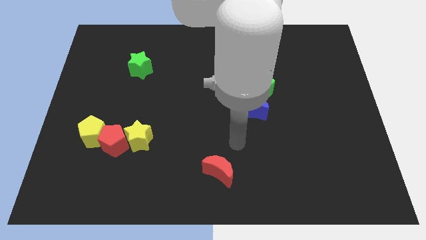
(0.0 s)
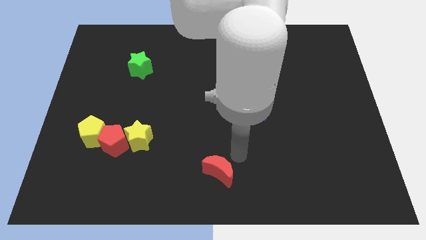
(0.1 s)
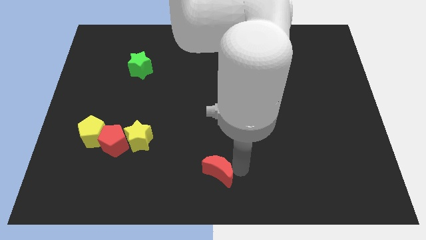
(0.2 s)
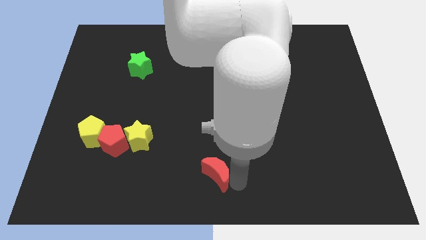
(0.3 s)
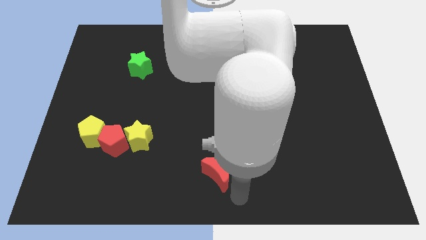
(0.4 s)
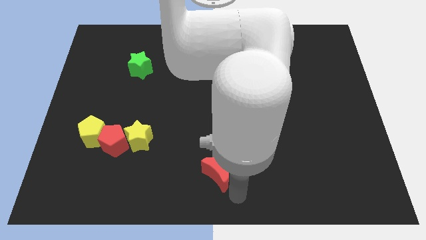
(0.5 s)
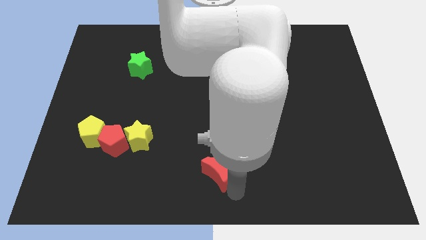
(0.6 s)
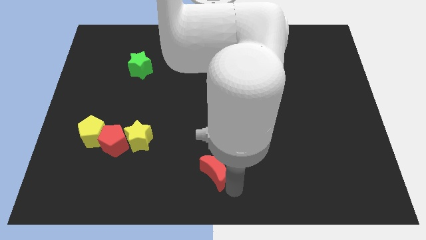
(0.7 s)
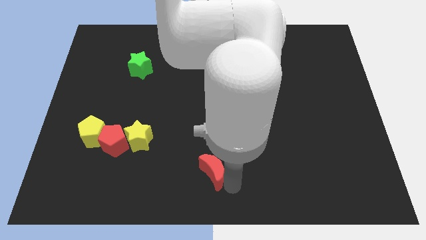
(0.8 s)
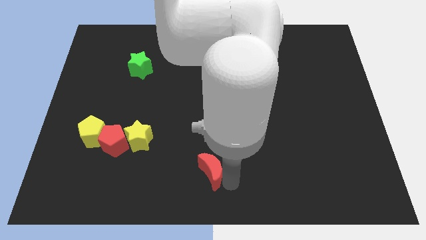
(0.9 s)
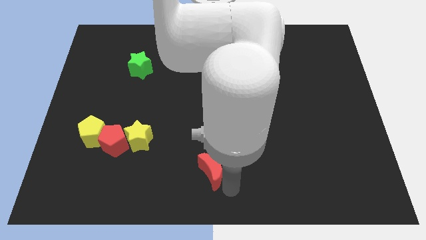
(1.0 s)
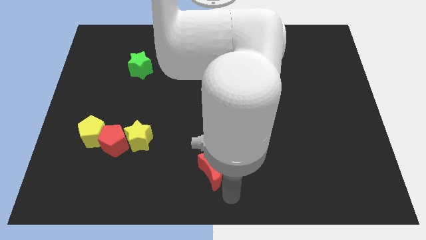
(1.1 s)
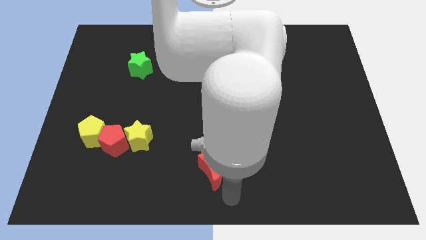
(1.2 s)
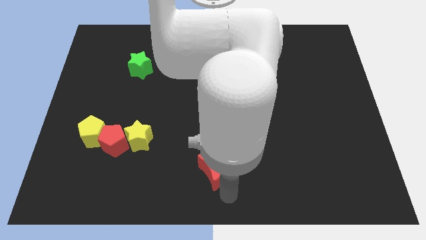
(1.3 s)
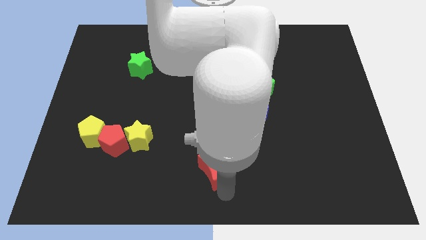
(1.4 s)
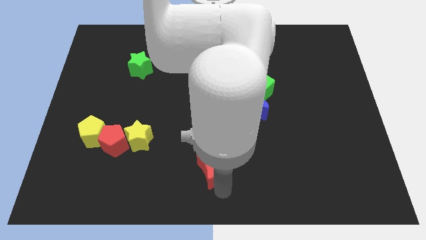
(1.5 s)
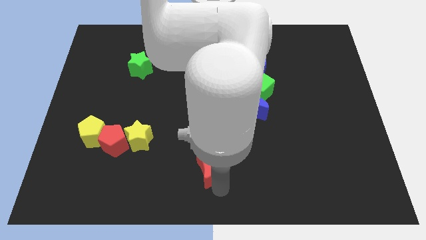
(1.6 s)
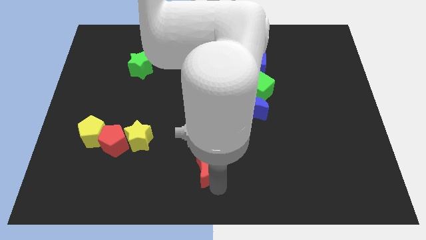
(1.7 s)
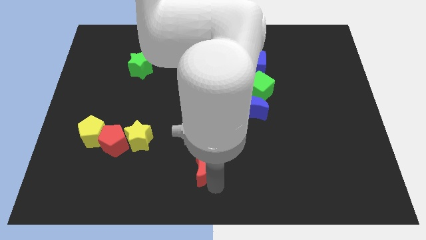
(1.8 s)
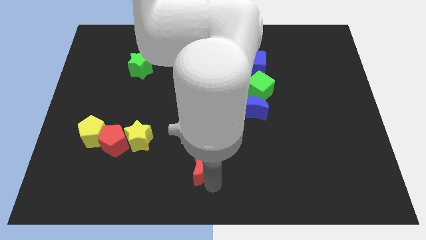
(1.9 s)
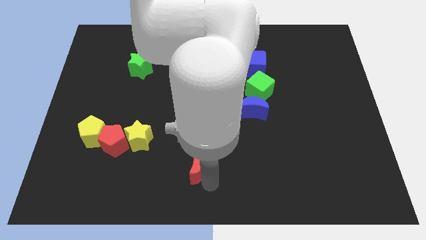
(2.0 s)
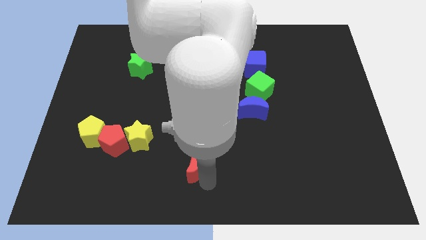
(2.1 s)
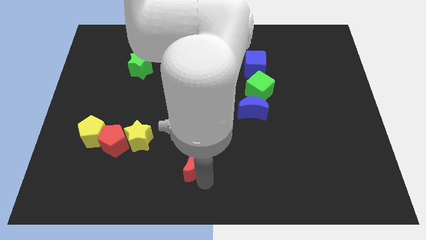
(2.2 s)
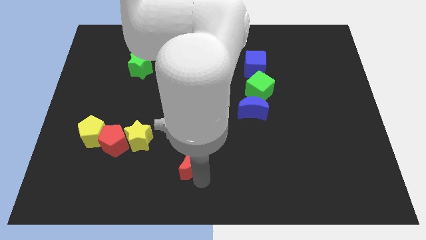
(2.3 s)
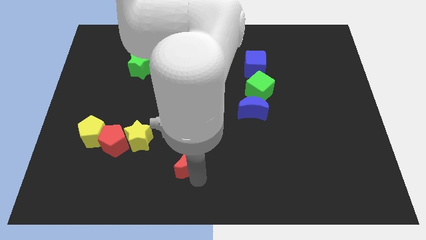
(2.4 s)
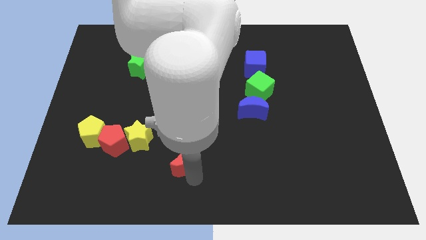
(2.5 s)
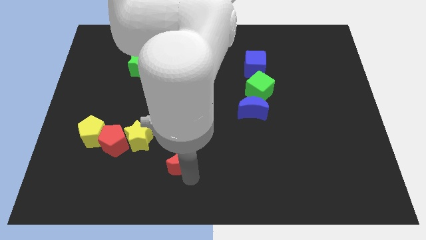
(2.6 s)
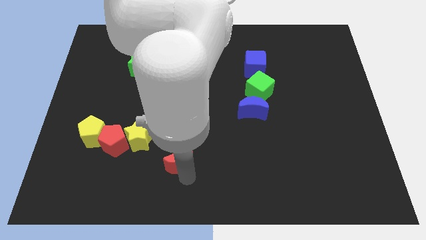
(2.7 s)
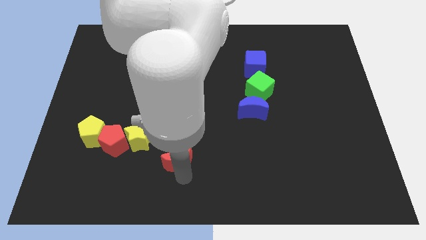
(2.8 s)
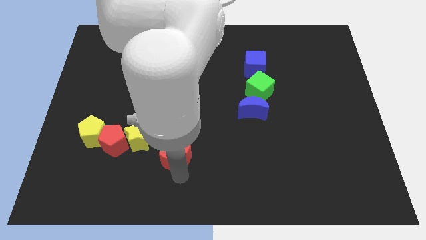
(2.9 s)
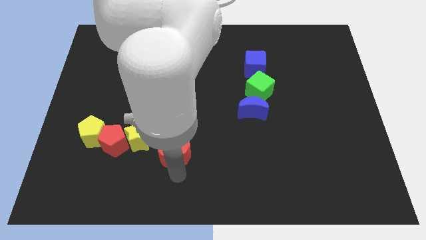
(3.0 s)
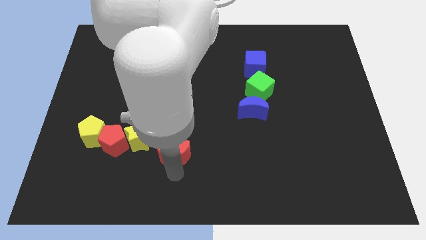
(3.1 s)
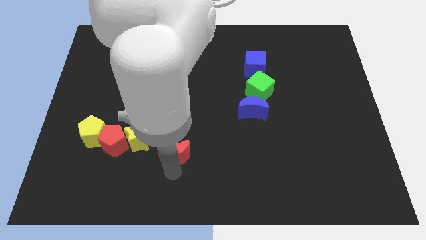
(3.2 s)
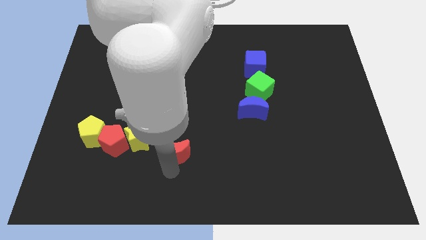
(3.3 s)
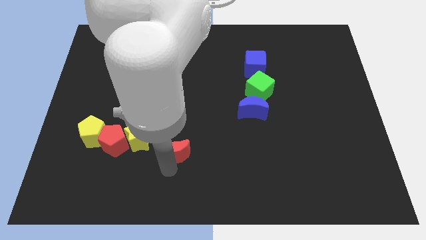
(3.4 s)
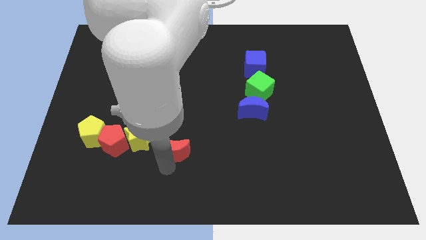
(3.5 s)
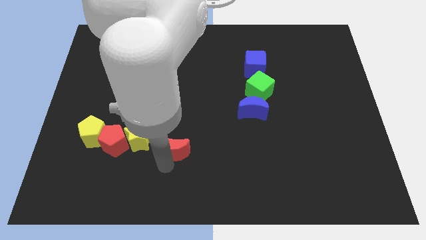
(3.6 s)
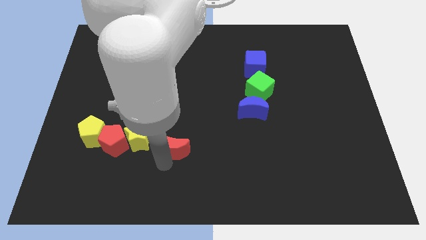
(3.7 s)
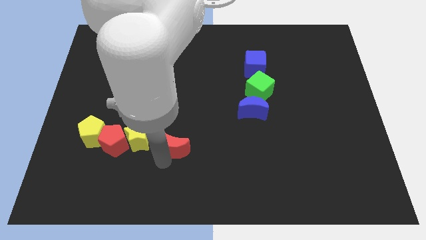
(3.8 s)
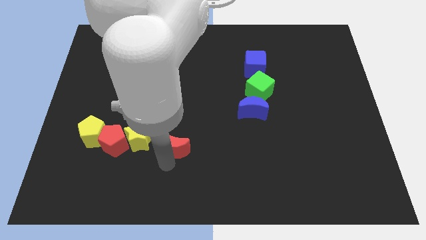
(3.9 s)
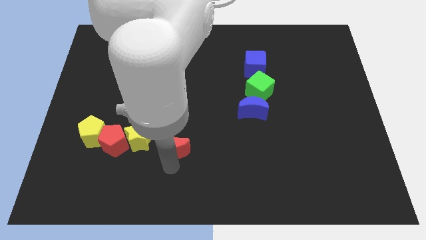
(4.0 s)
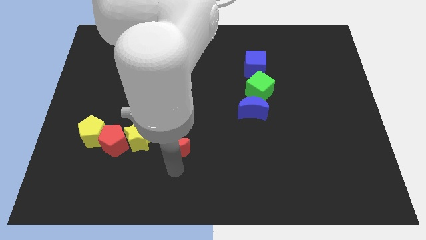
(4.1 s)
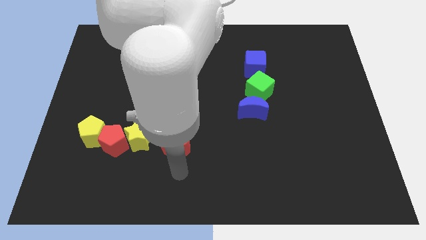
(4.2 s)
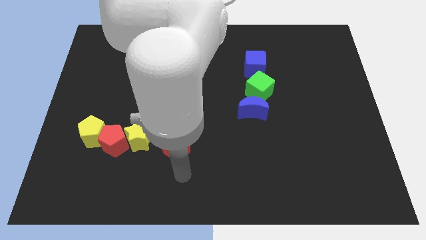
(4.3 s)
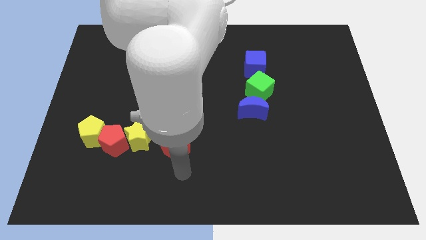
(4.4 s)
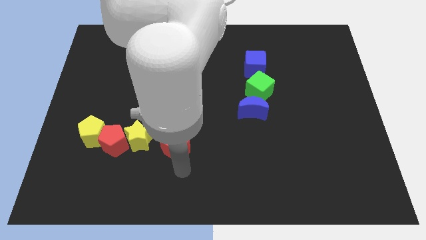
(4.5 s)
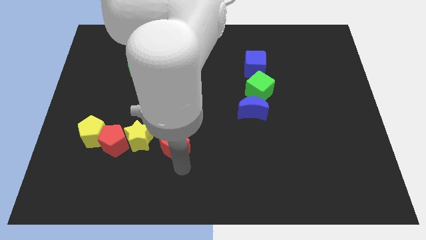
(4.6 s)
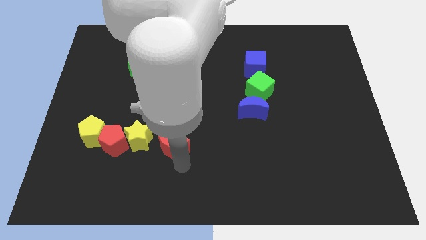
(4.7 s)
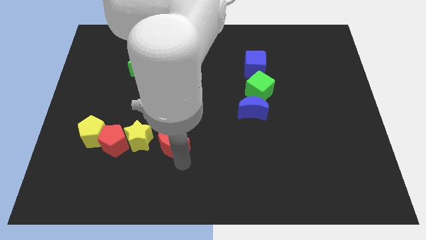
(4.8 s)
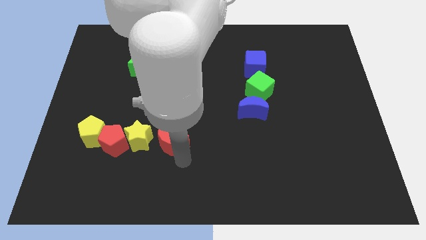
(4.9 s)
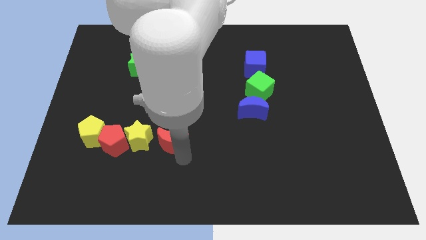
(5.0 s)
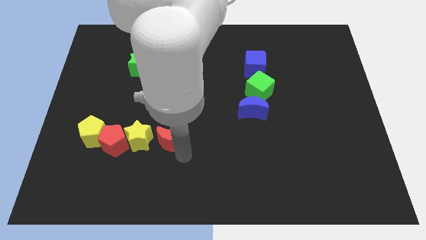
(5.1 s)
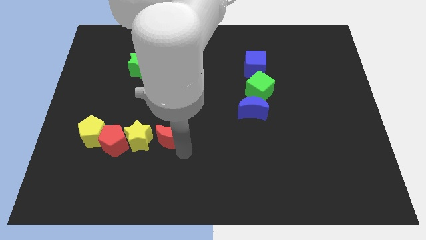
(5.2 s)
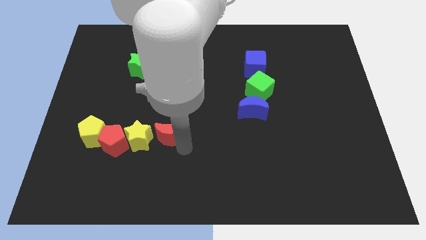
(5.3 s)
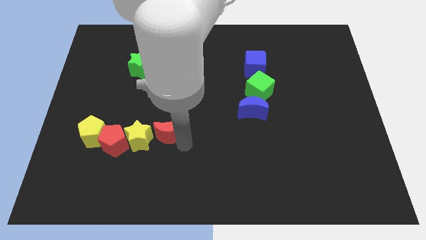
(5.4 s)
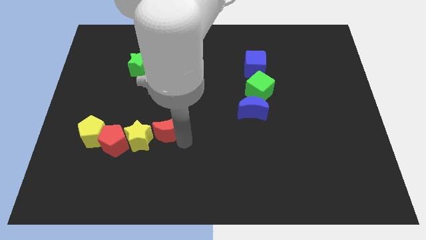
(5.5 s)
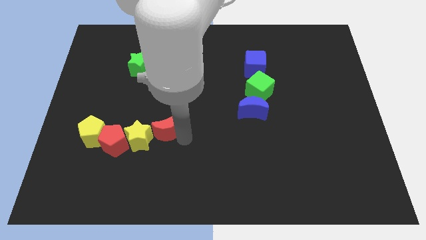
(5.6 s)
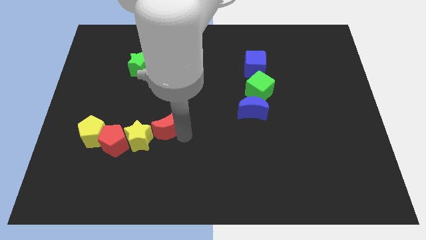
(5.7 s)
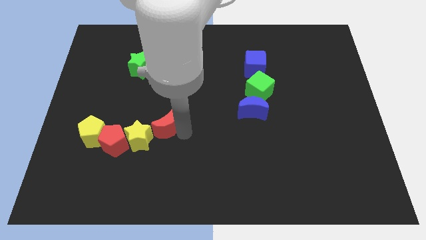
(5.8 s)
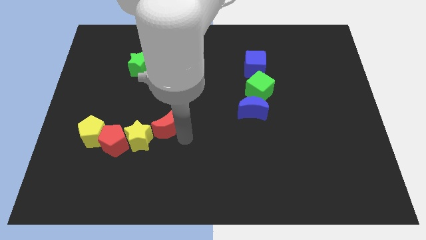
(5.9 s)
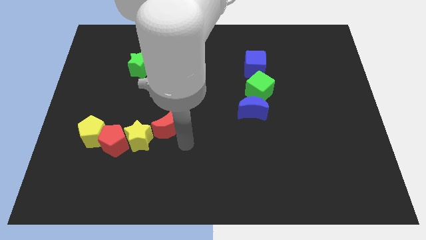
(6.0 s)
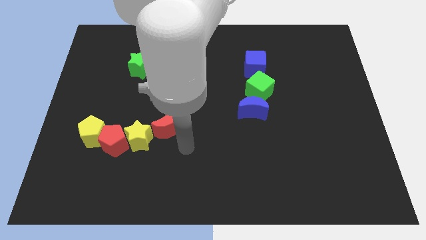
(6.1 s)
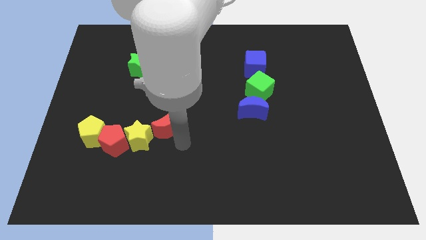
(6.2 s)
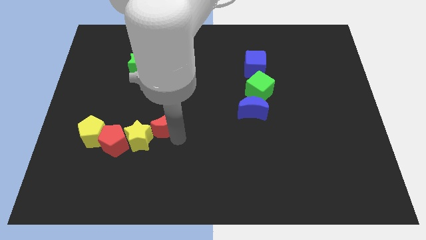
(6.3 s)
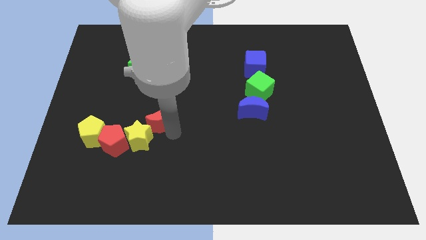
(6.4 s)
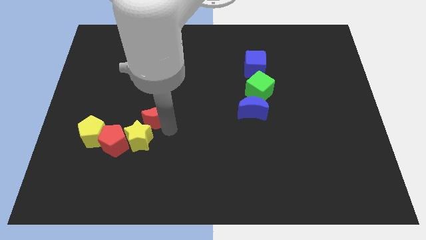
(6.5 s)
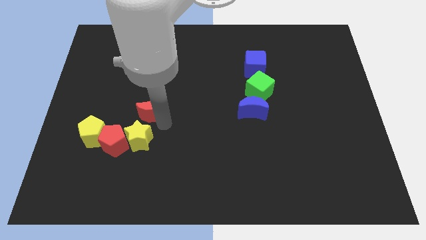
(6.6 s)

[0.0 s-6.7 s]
move the red moon up and then left

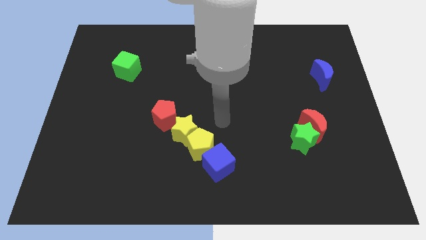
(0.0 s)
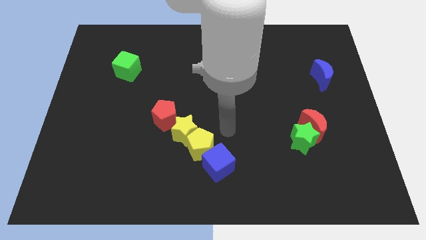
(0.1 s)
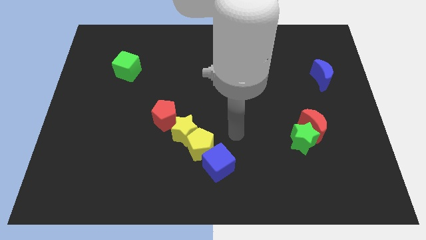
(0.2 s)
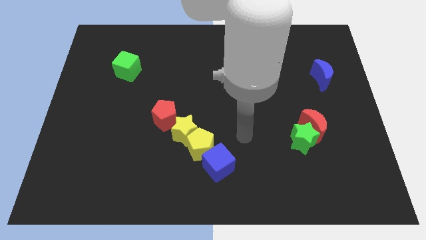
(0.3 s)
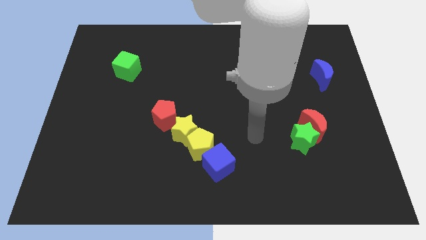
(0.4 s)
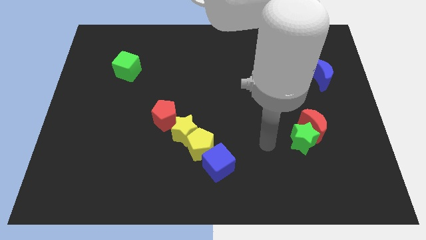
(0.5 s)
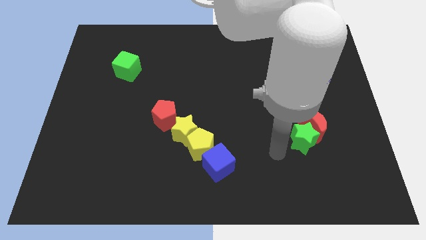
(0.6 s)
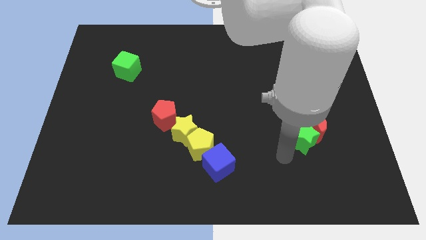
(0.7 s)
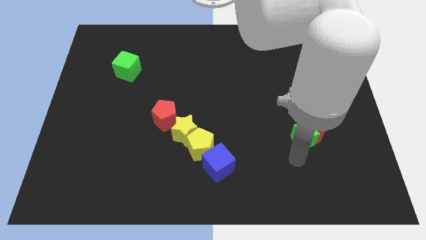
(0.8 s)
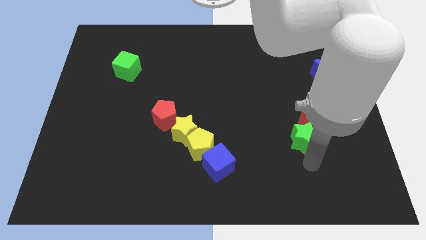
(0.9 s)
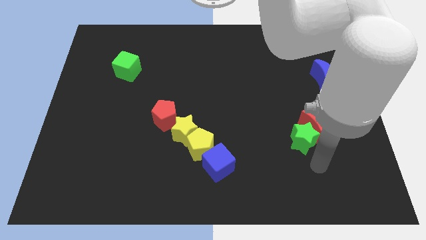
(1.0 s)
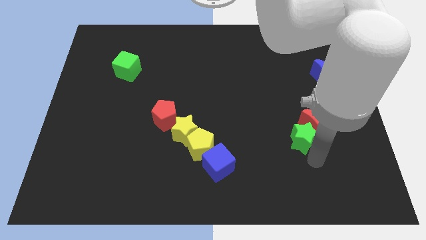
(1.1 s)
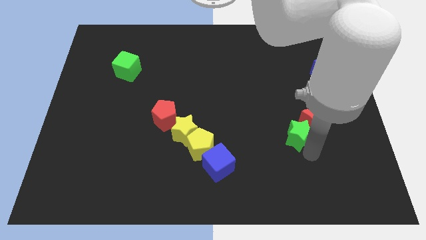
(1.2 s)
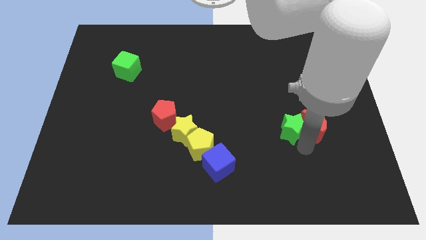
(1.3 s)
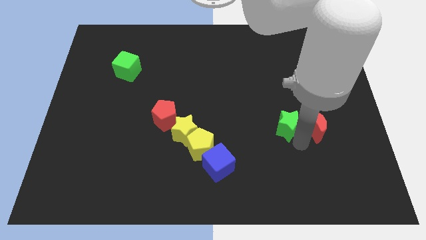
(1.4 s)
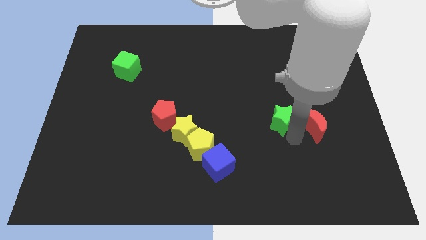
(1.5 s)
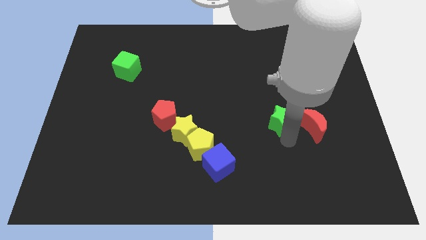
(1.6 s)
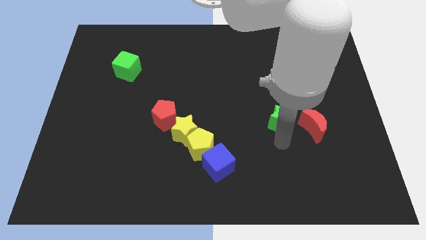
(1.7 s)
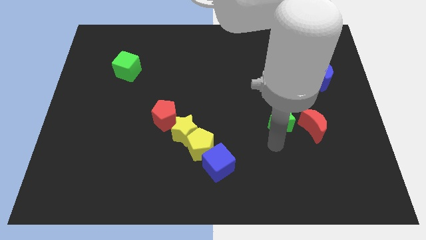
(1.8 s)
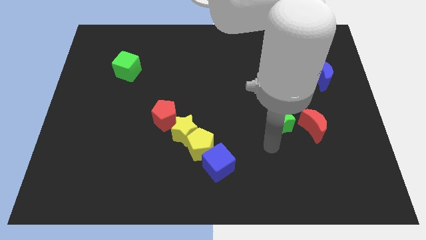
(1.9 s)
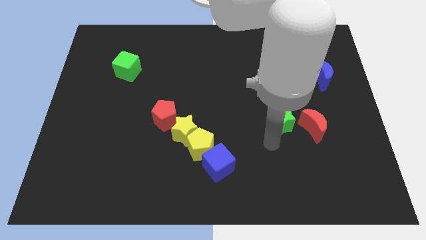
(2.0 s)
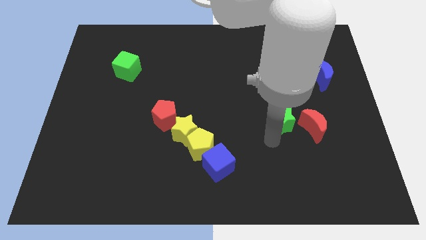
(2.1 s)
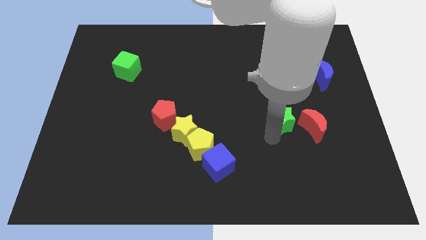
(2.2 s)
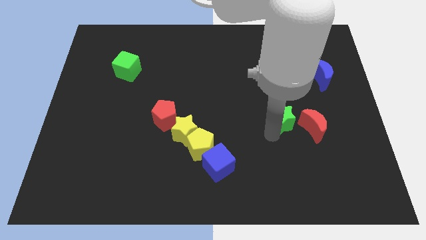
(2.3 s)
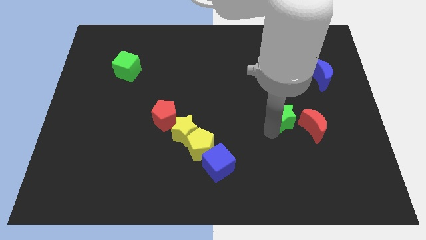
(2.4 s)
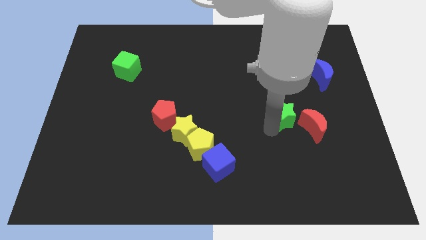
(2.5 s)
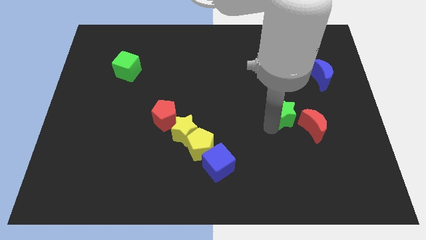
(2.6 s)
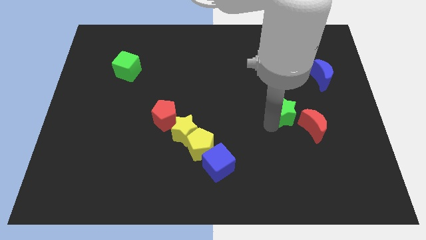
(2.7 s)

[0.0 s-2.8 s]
move the green star upwards a little bit
